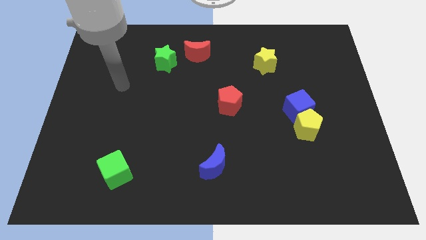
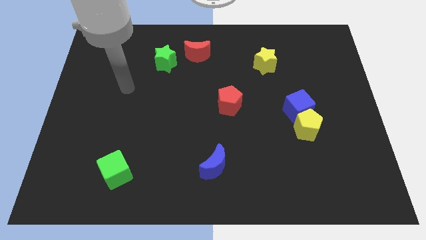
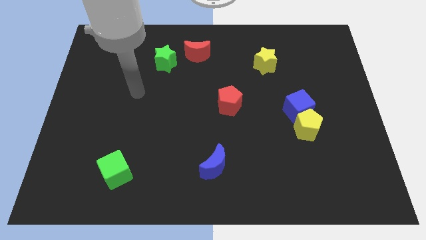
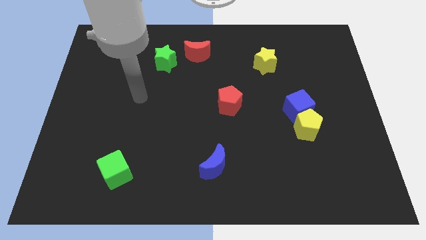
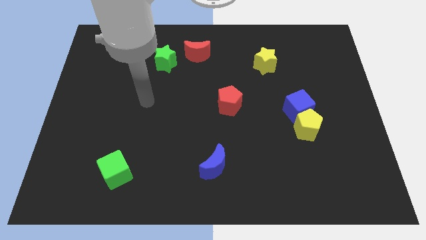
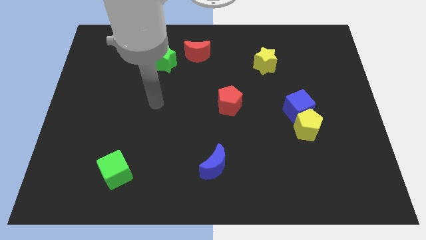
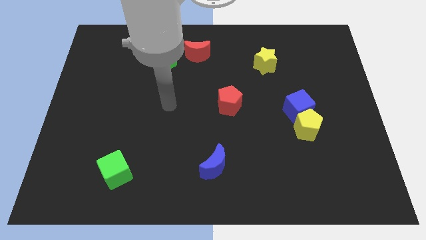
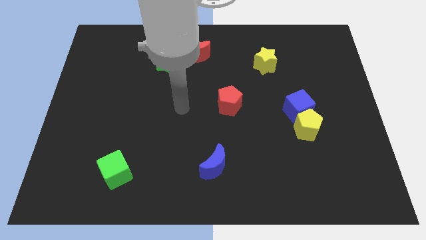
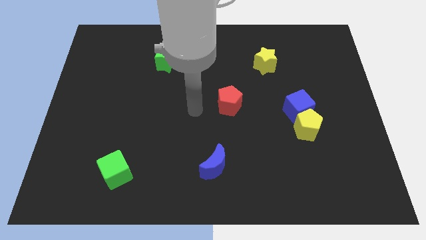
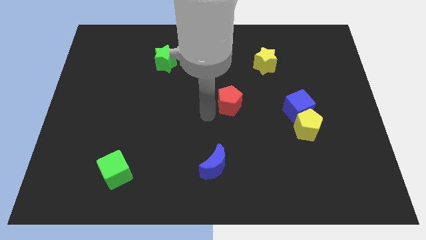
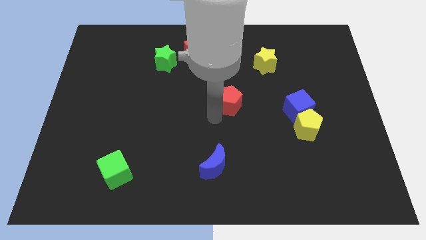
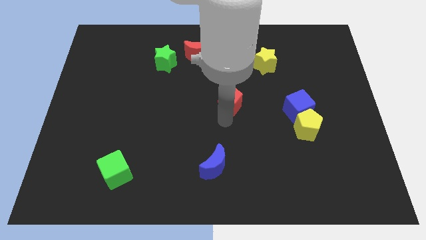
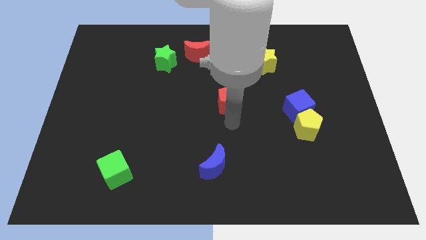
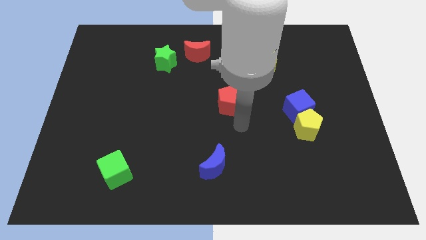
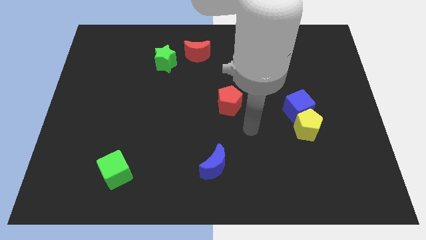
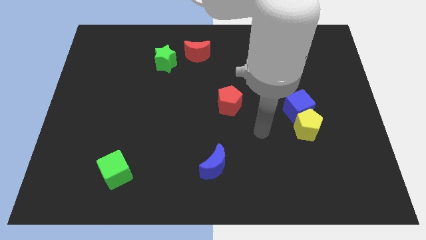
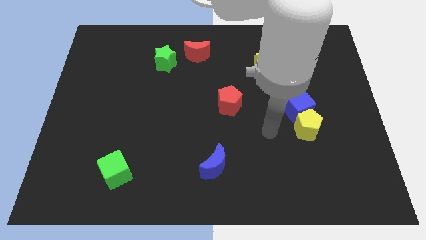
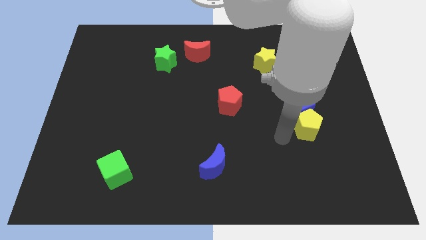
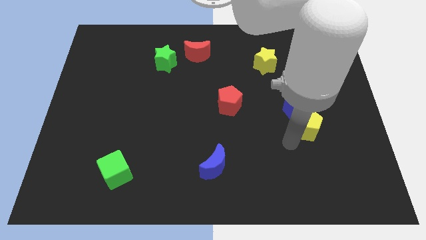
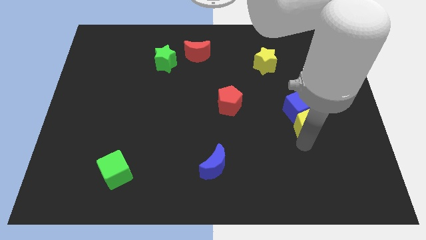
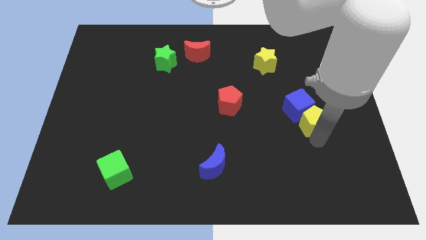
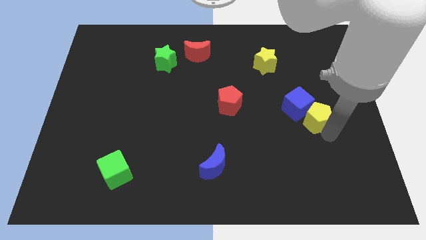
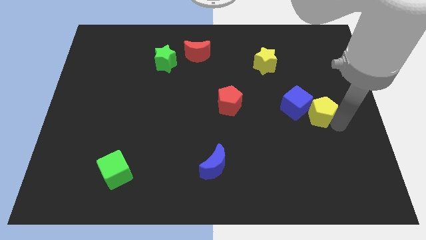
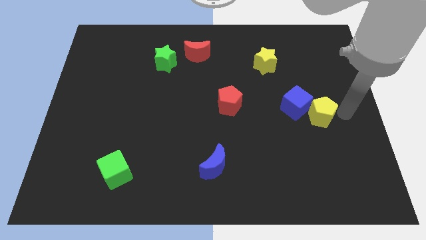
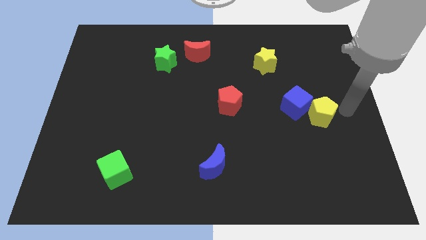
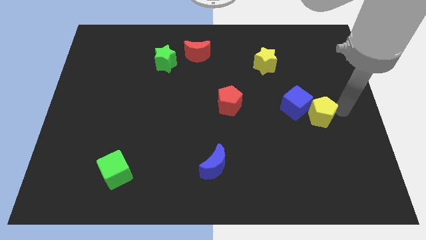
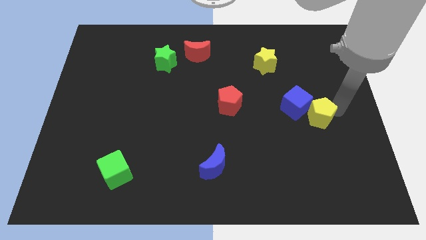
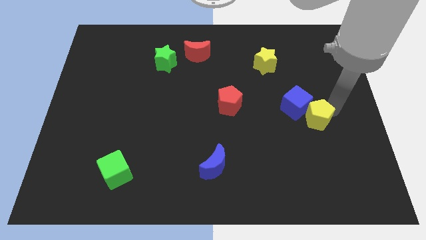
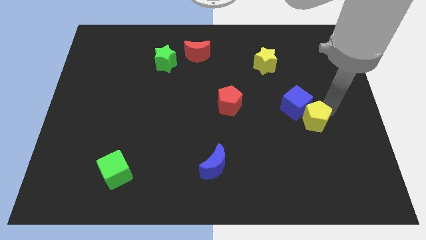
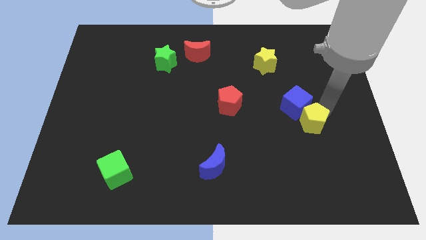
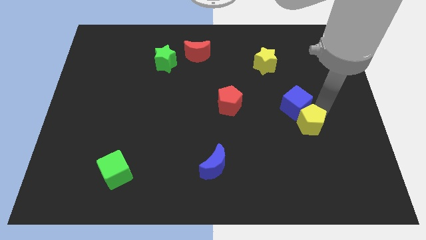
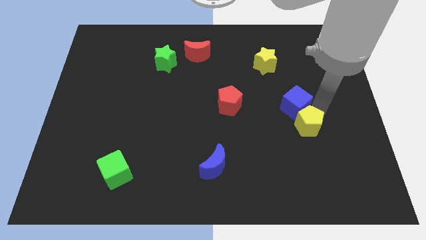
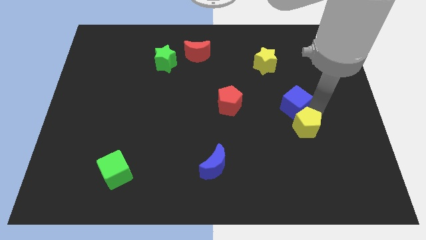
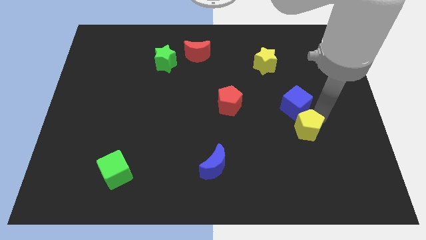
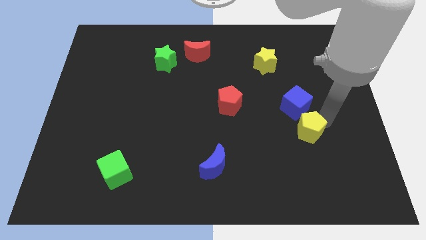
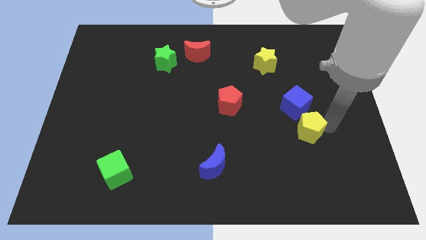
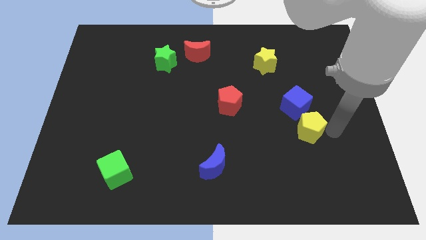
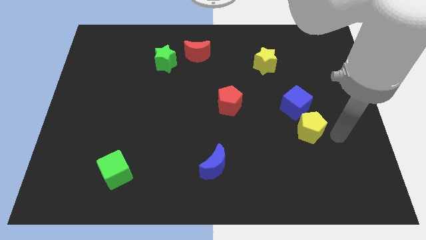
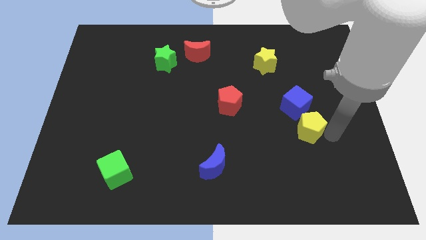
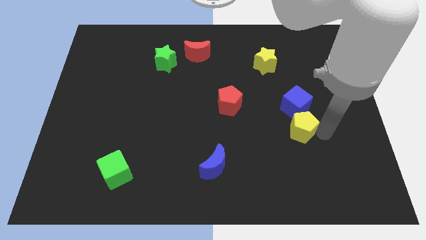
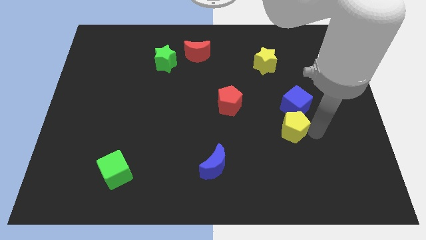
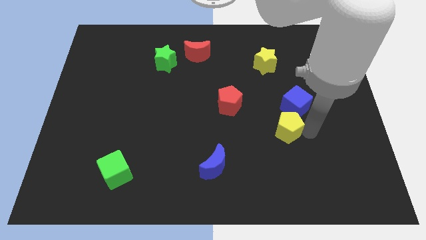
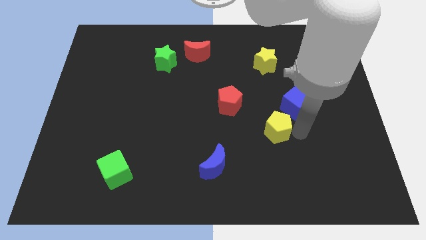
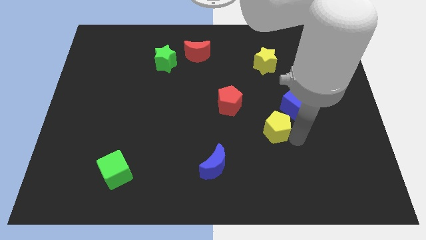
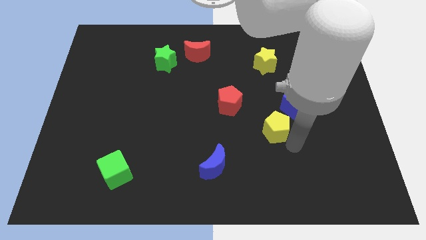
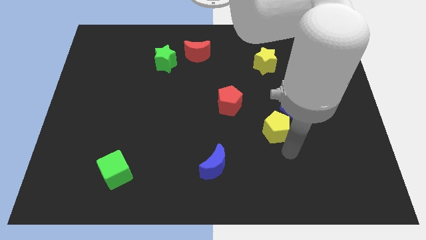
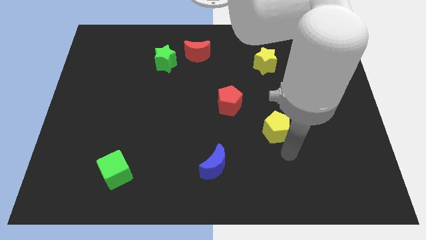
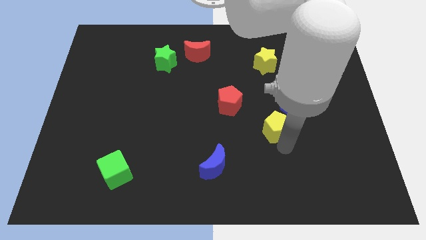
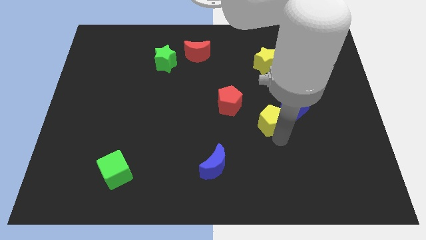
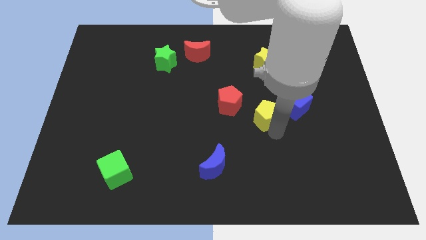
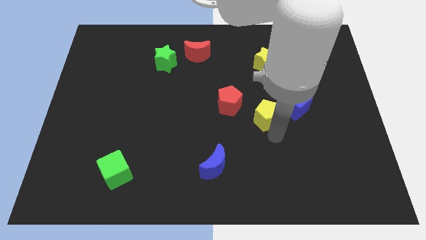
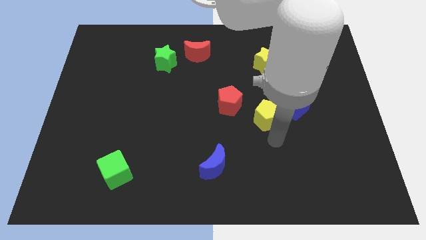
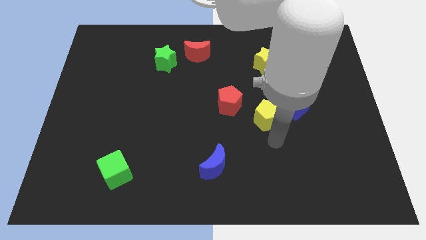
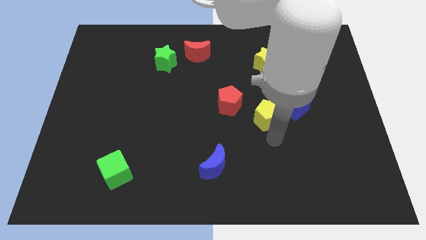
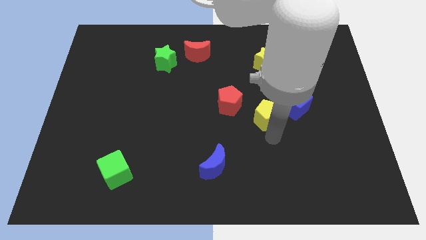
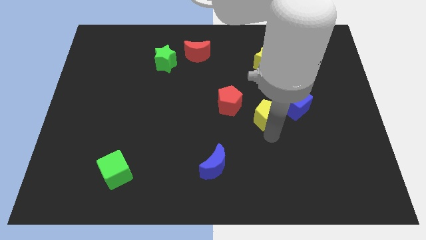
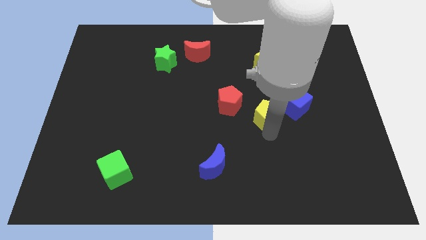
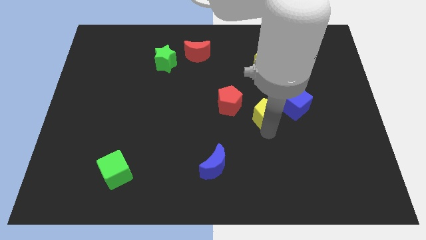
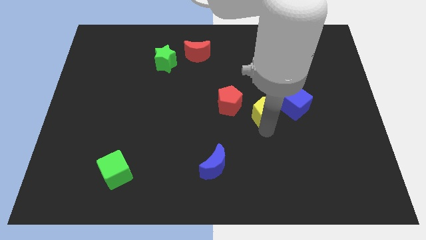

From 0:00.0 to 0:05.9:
move the yellow pentagon to the center of the board
